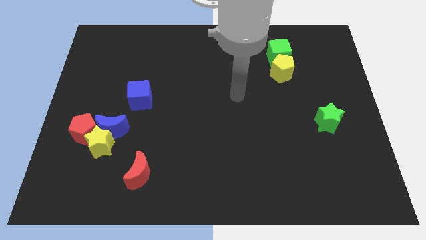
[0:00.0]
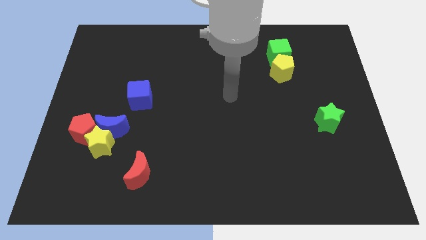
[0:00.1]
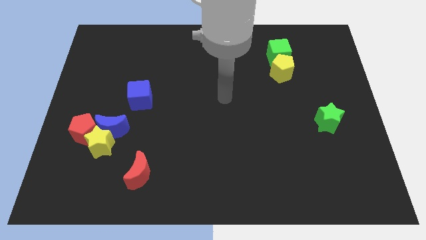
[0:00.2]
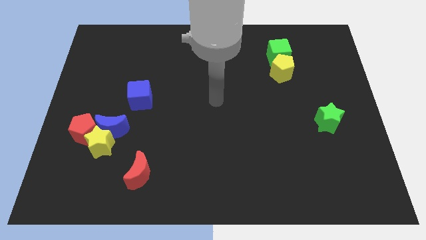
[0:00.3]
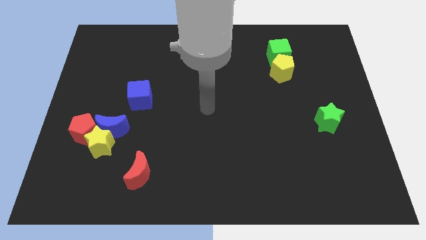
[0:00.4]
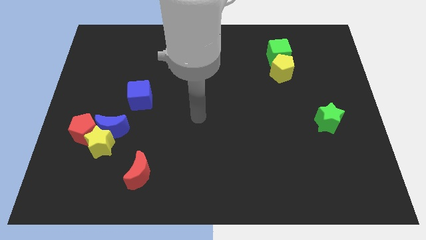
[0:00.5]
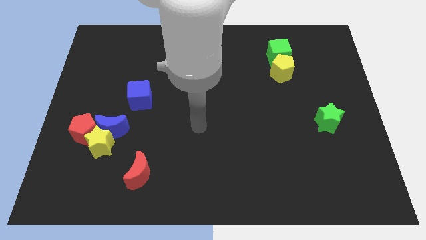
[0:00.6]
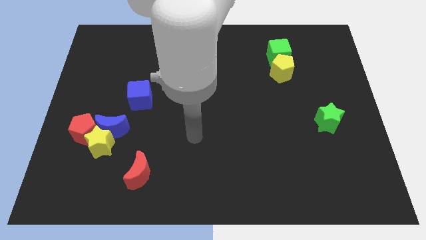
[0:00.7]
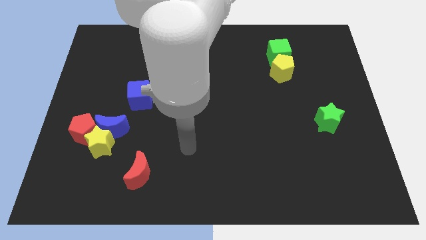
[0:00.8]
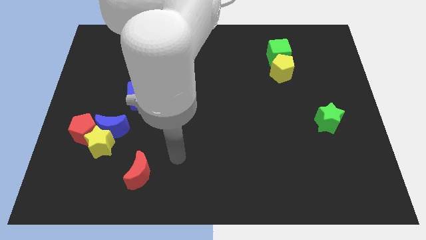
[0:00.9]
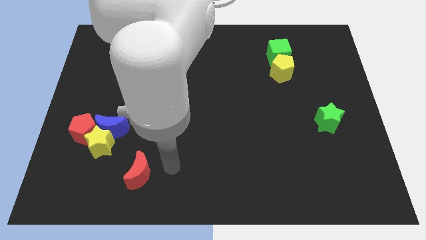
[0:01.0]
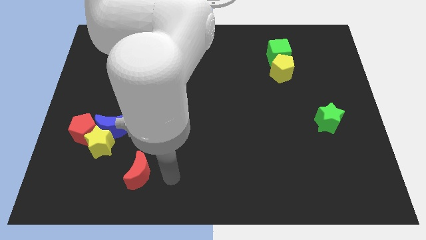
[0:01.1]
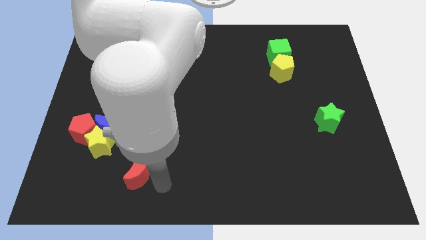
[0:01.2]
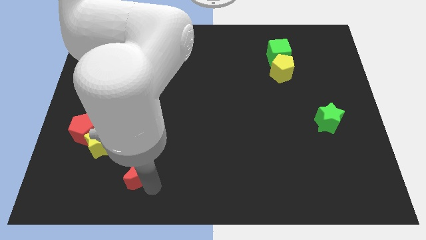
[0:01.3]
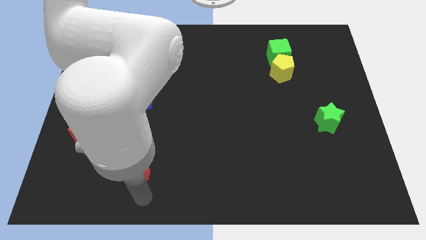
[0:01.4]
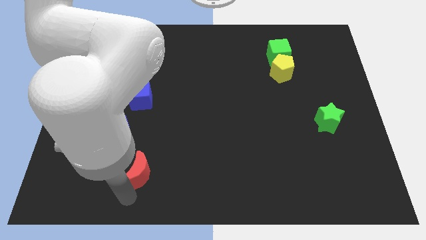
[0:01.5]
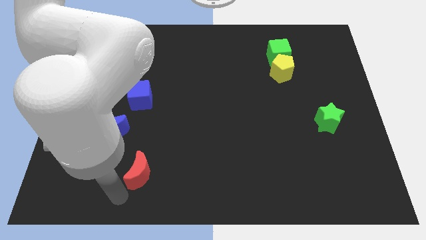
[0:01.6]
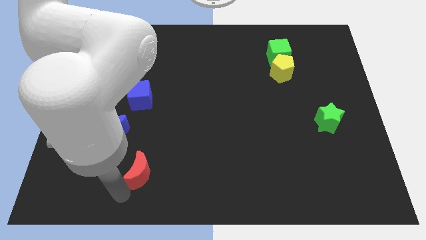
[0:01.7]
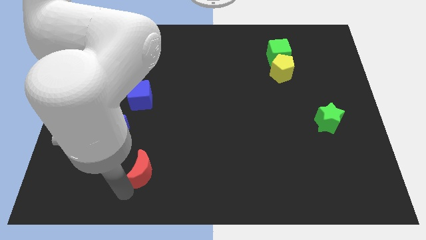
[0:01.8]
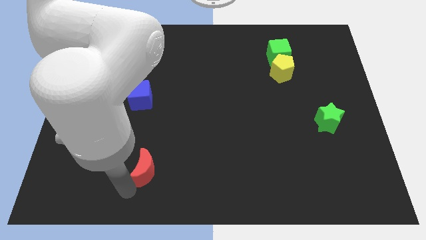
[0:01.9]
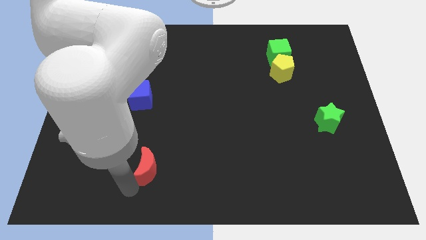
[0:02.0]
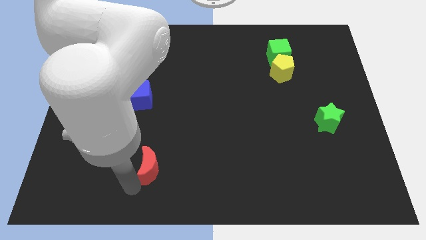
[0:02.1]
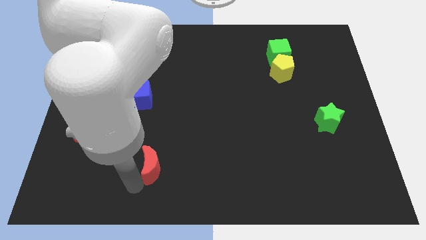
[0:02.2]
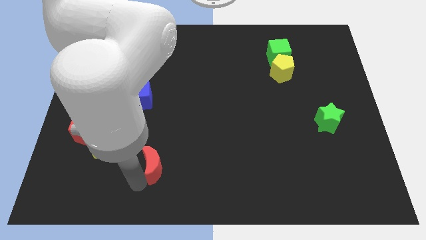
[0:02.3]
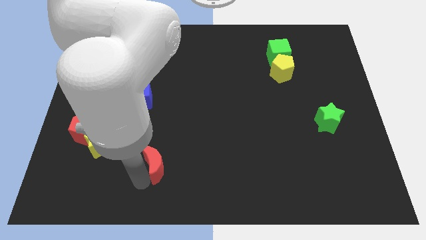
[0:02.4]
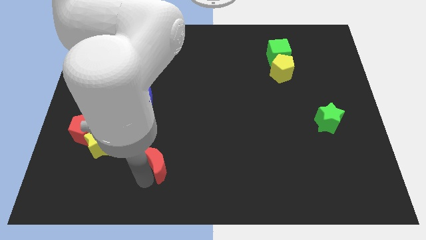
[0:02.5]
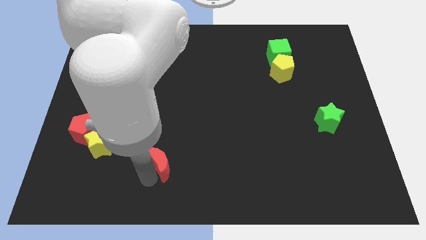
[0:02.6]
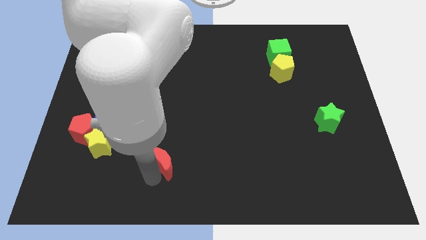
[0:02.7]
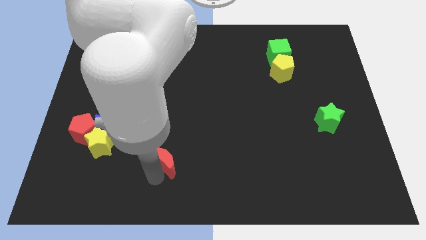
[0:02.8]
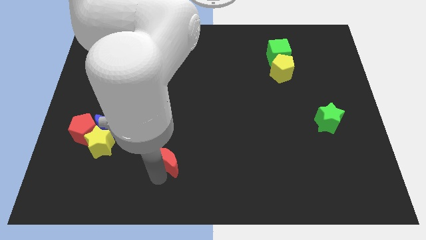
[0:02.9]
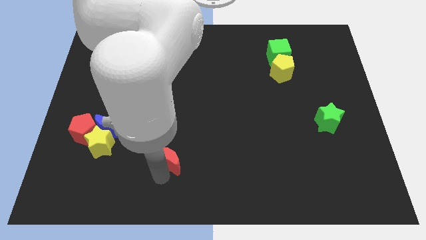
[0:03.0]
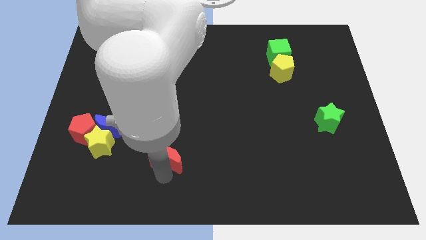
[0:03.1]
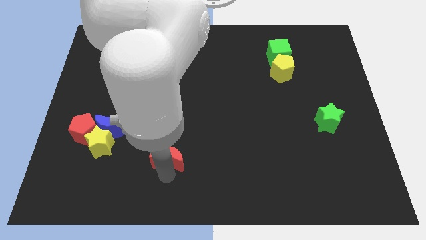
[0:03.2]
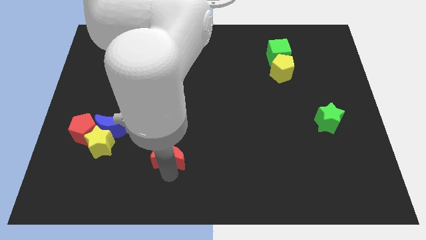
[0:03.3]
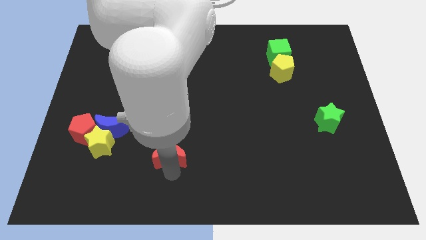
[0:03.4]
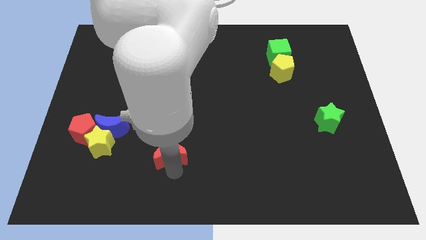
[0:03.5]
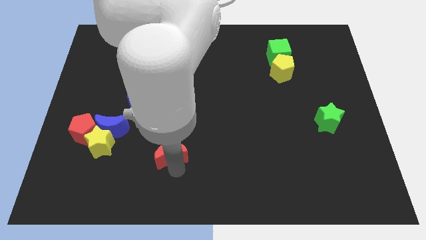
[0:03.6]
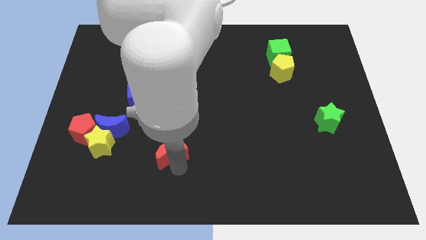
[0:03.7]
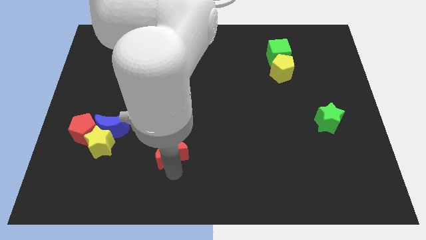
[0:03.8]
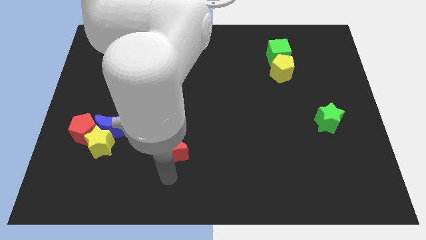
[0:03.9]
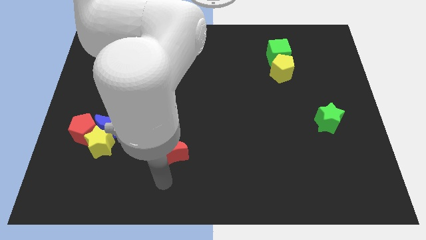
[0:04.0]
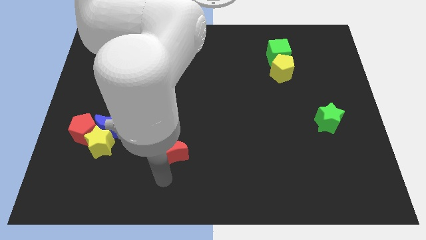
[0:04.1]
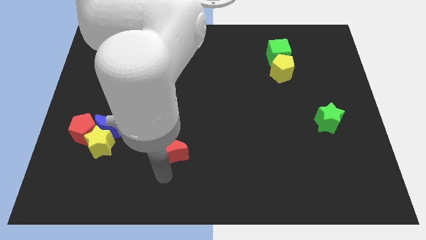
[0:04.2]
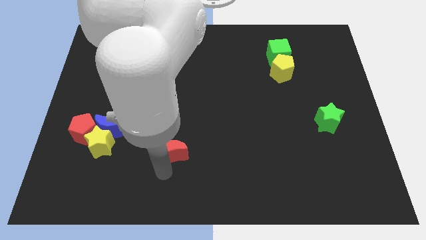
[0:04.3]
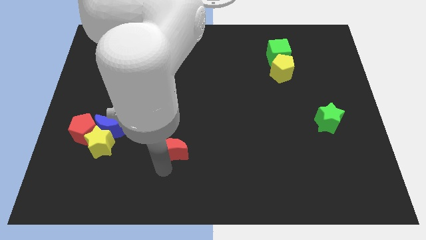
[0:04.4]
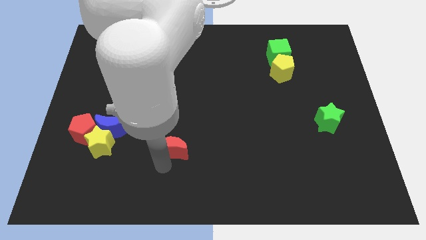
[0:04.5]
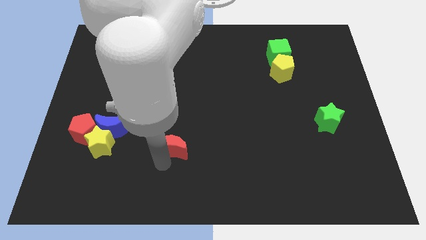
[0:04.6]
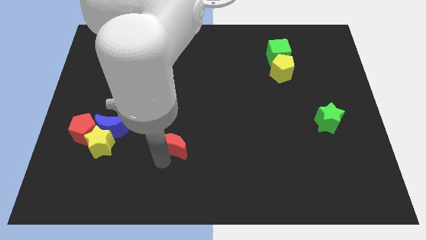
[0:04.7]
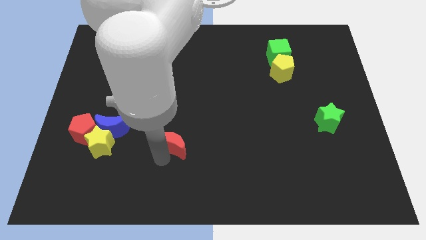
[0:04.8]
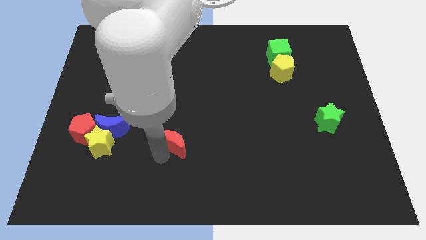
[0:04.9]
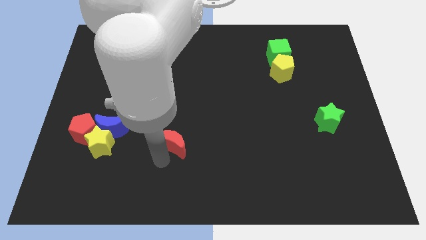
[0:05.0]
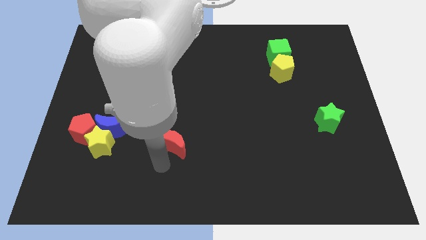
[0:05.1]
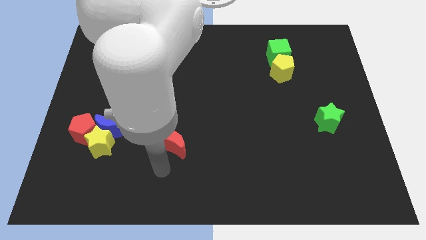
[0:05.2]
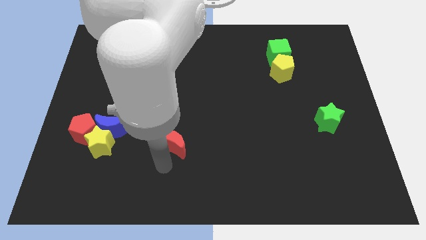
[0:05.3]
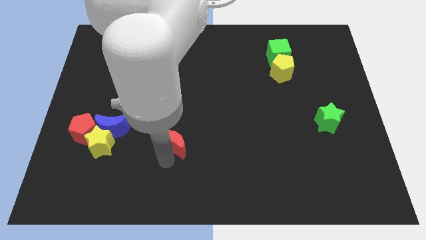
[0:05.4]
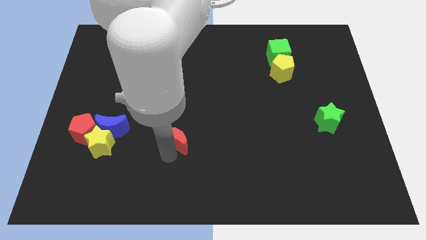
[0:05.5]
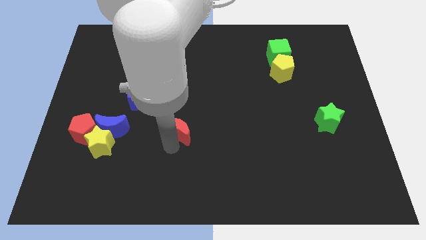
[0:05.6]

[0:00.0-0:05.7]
push the red moon to the center

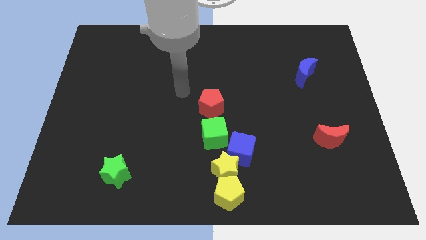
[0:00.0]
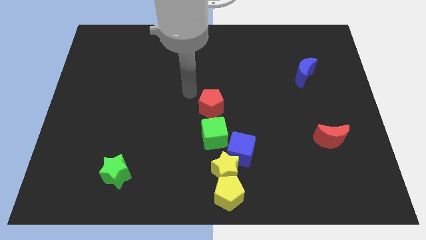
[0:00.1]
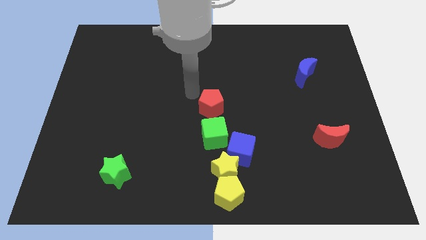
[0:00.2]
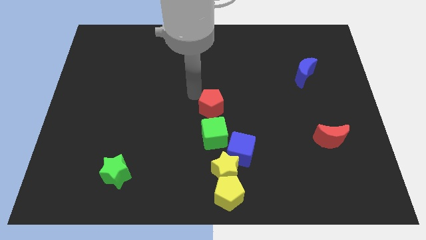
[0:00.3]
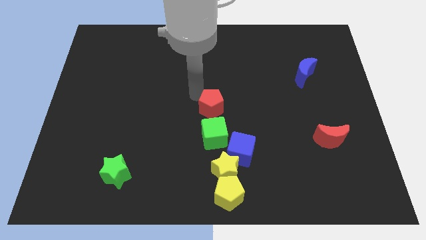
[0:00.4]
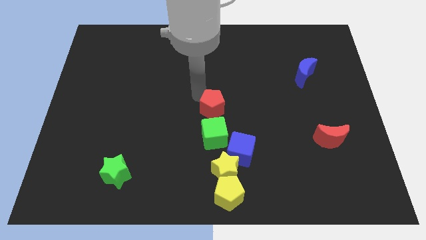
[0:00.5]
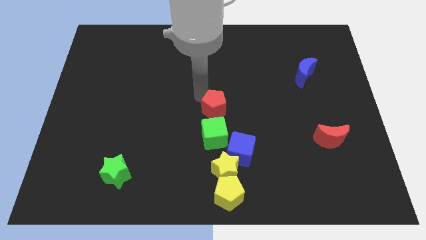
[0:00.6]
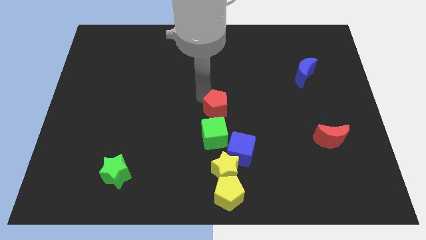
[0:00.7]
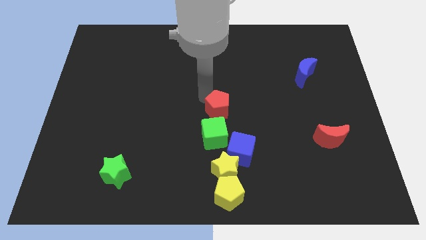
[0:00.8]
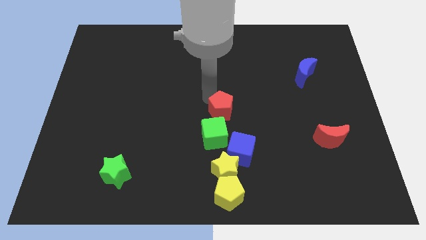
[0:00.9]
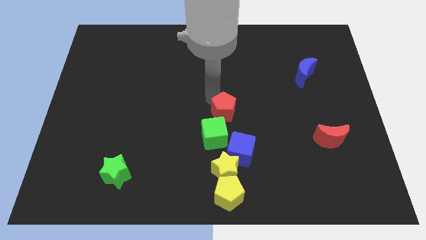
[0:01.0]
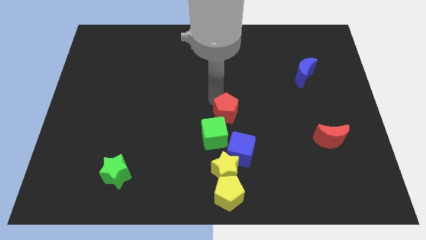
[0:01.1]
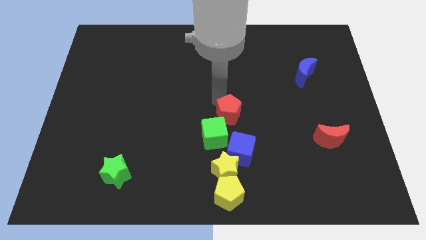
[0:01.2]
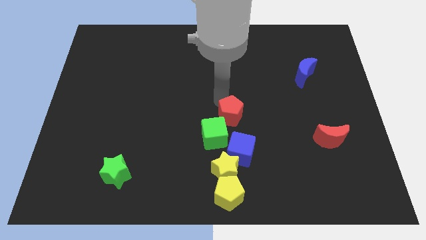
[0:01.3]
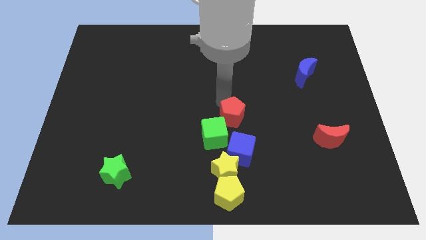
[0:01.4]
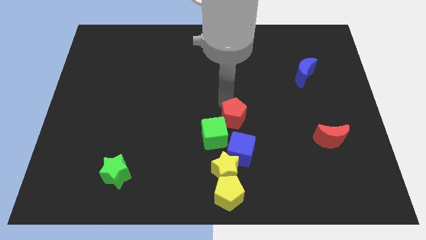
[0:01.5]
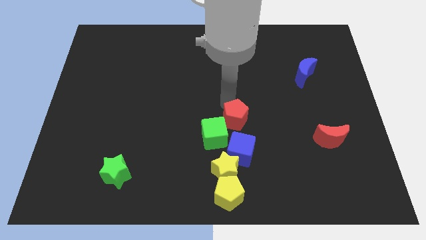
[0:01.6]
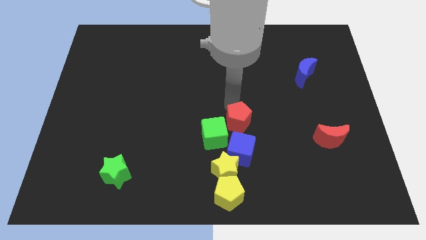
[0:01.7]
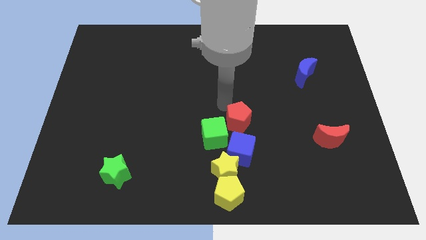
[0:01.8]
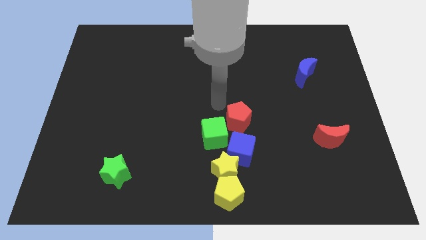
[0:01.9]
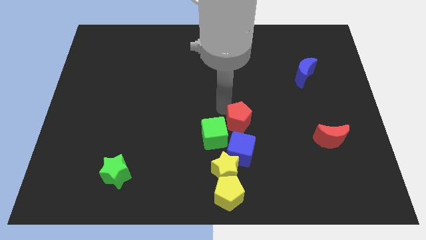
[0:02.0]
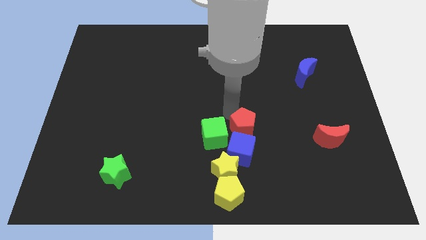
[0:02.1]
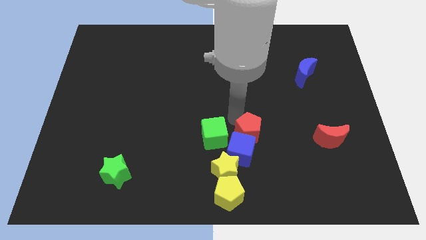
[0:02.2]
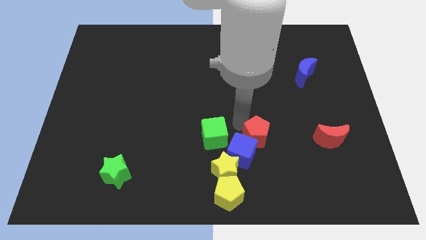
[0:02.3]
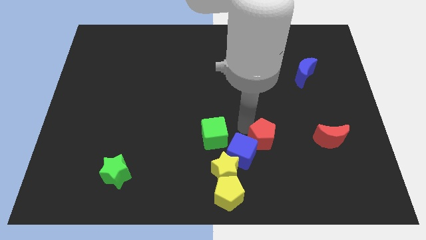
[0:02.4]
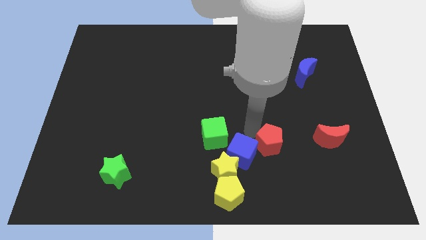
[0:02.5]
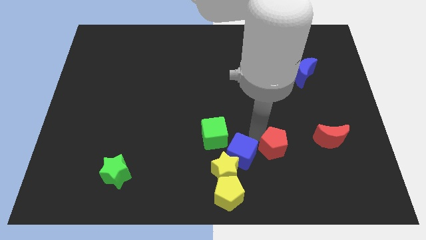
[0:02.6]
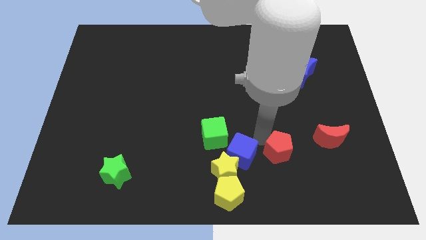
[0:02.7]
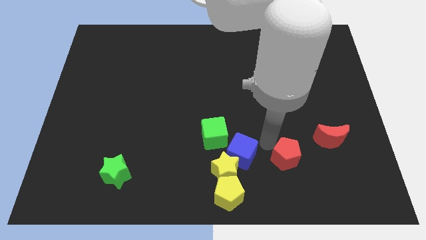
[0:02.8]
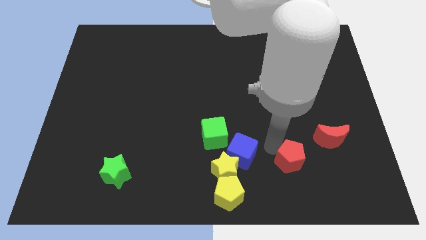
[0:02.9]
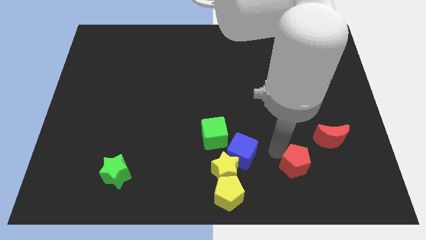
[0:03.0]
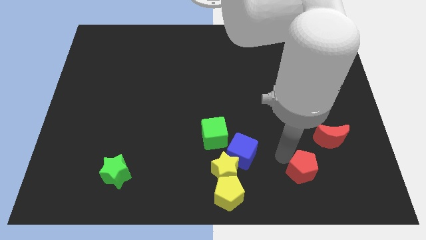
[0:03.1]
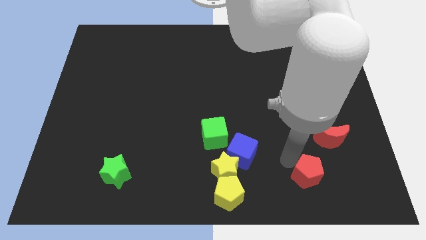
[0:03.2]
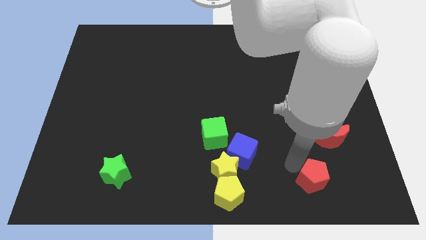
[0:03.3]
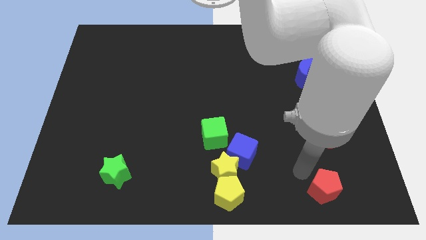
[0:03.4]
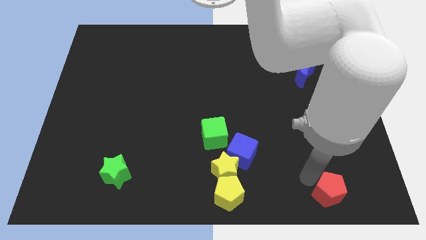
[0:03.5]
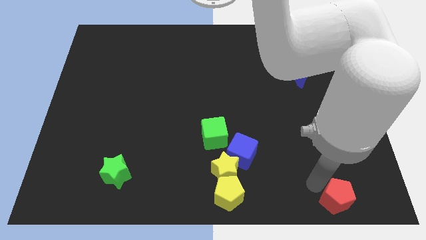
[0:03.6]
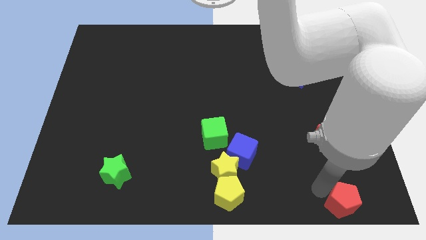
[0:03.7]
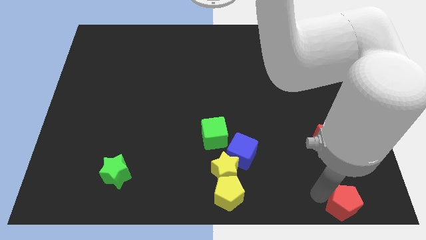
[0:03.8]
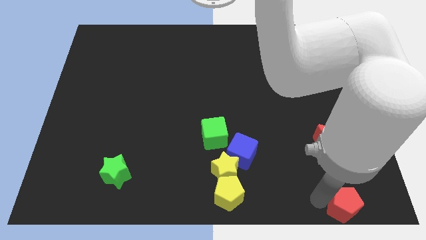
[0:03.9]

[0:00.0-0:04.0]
put the red pentagon to the bottom right corner
